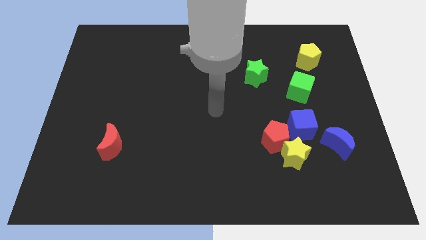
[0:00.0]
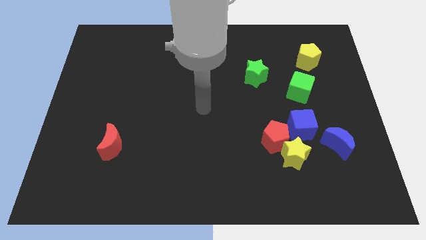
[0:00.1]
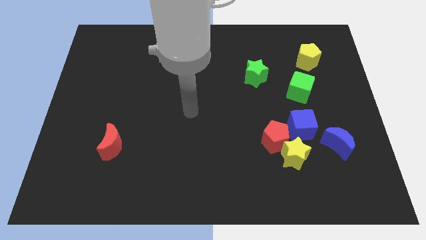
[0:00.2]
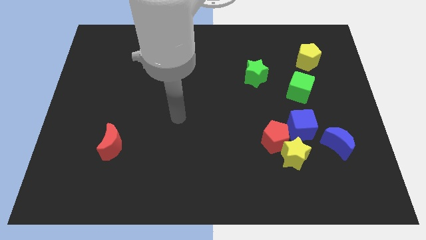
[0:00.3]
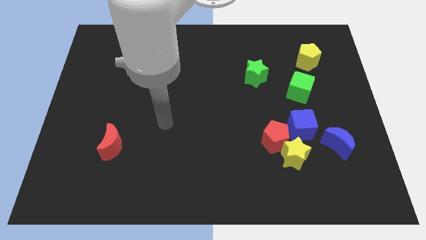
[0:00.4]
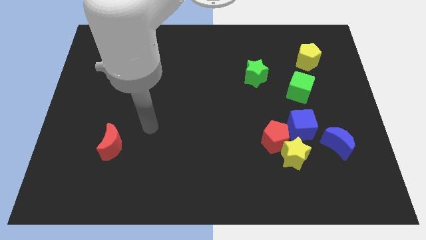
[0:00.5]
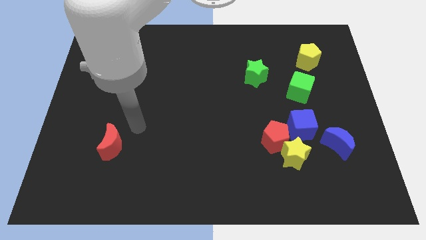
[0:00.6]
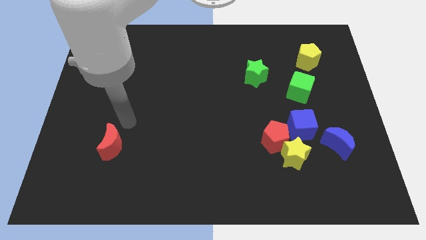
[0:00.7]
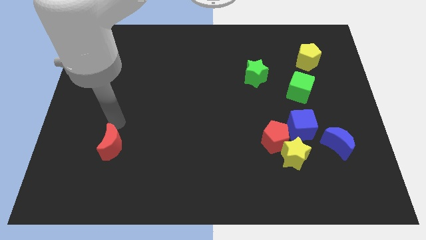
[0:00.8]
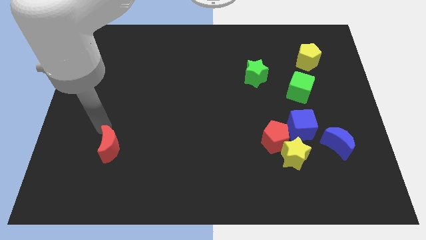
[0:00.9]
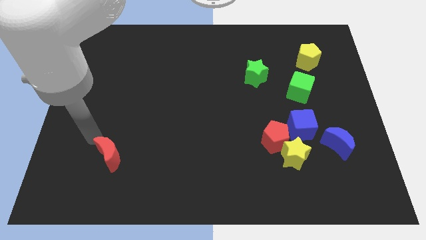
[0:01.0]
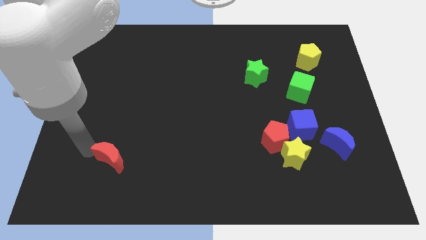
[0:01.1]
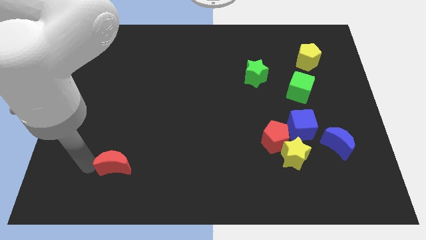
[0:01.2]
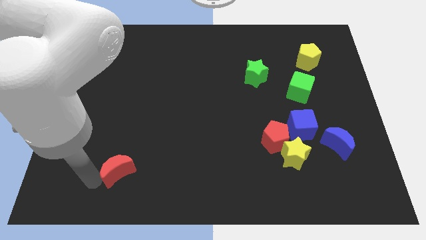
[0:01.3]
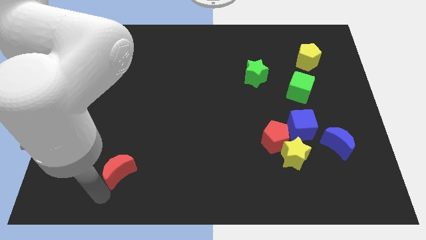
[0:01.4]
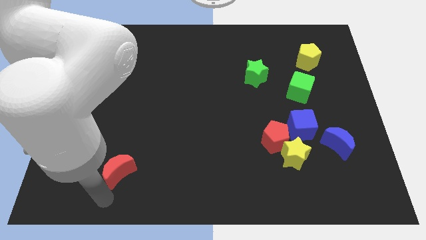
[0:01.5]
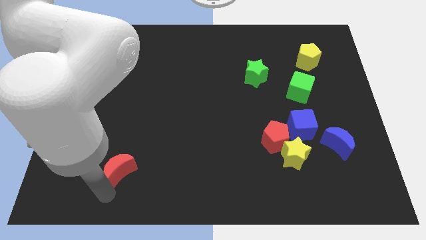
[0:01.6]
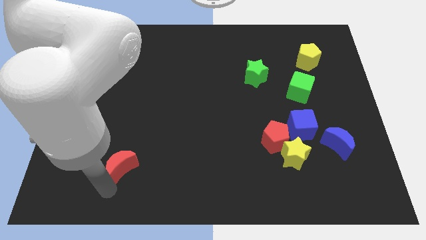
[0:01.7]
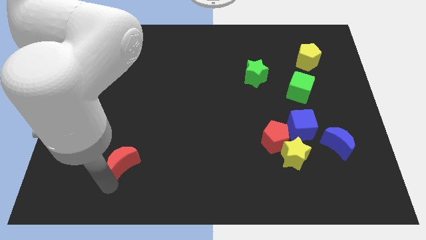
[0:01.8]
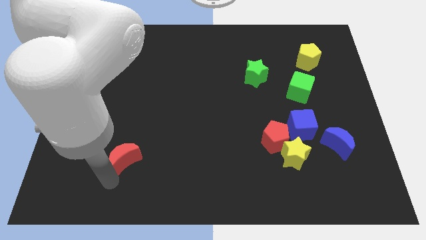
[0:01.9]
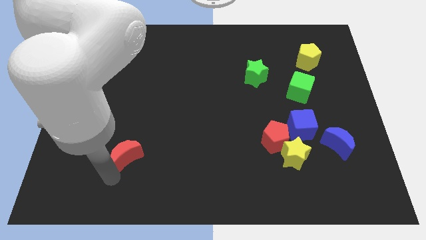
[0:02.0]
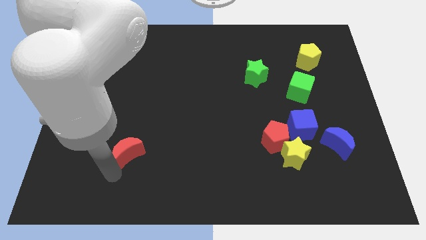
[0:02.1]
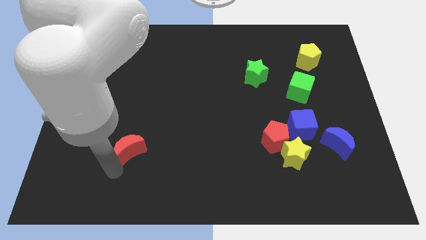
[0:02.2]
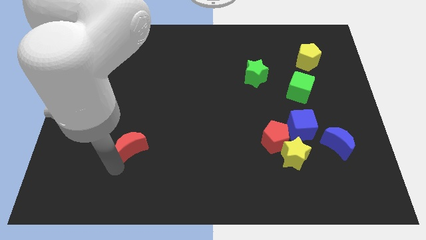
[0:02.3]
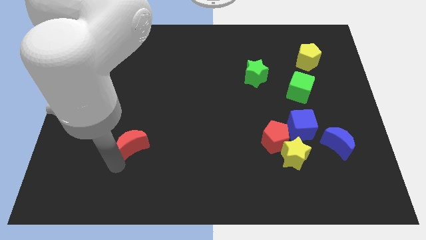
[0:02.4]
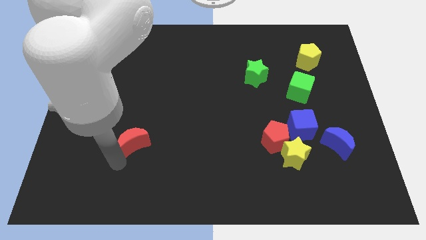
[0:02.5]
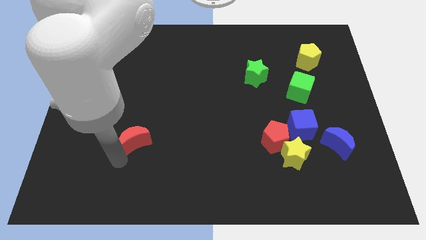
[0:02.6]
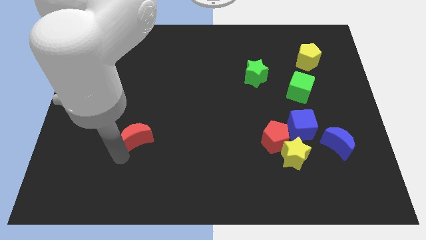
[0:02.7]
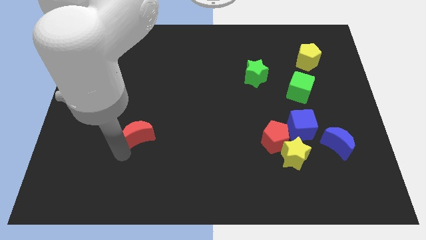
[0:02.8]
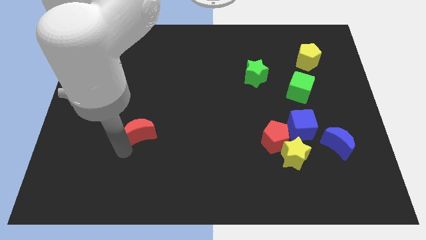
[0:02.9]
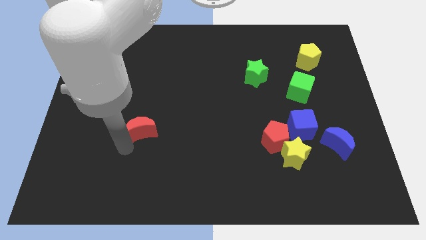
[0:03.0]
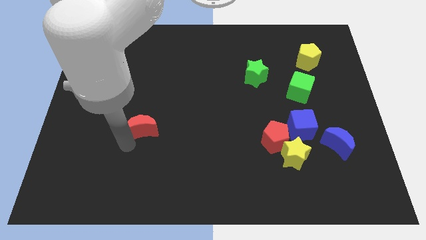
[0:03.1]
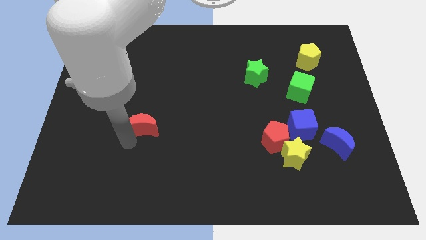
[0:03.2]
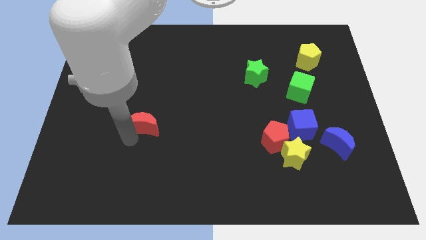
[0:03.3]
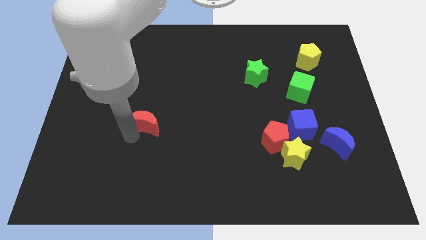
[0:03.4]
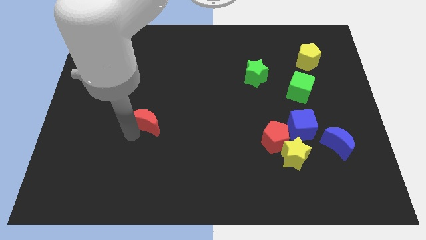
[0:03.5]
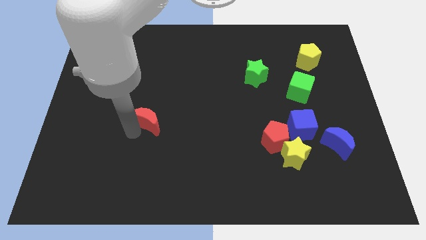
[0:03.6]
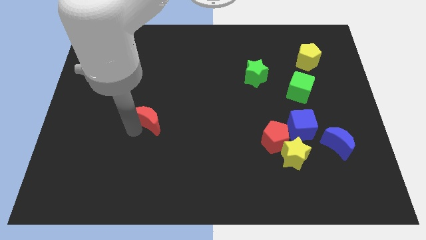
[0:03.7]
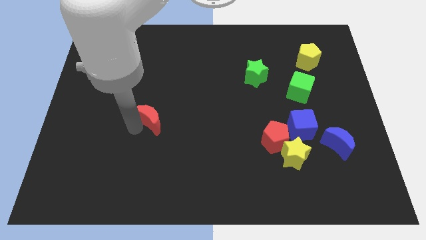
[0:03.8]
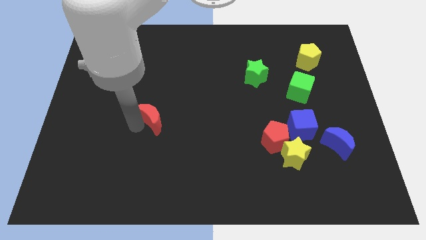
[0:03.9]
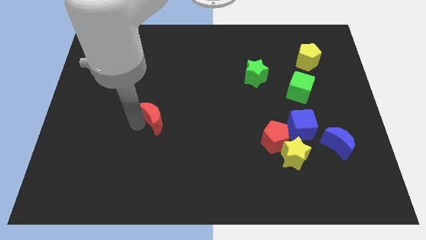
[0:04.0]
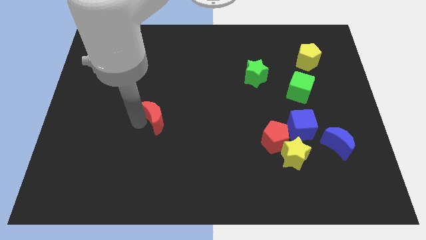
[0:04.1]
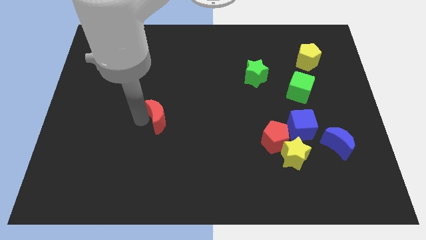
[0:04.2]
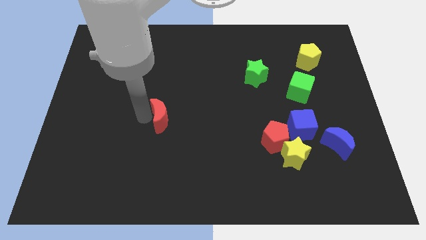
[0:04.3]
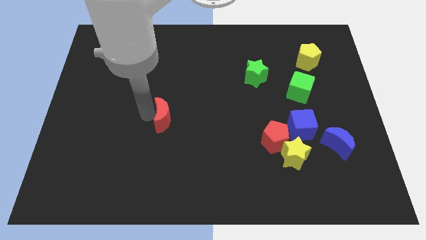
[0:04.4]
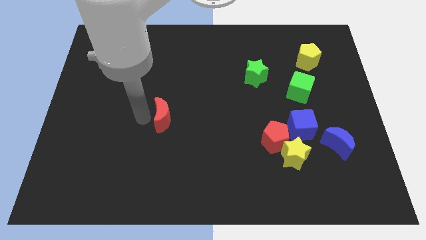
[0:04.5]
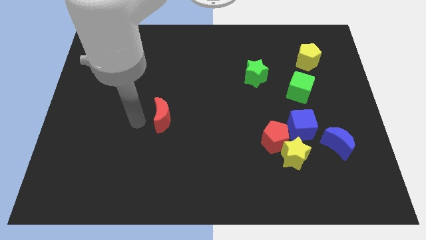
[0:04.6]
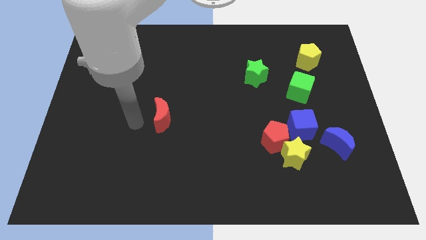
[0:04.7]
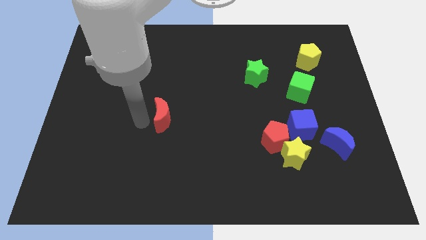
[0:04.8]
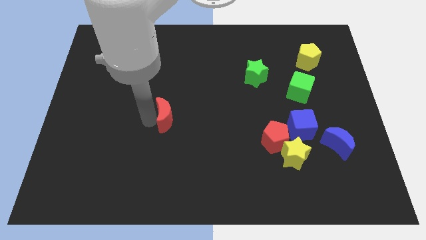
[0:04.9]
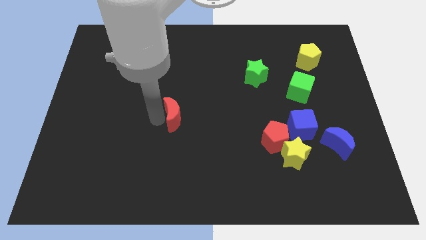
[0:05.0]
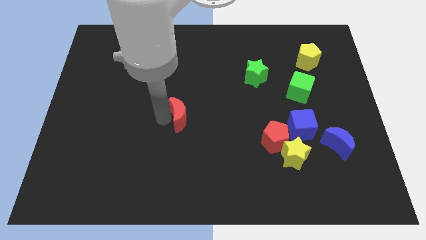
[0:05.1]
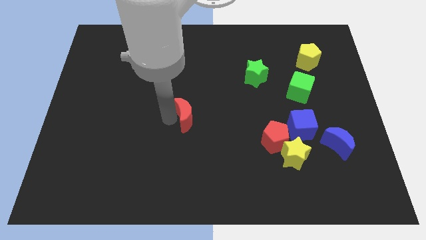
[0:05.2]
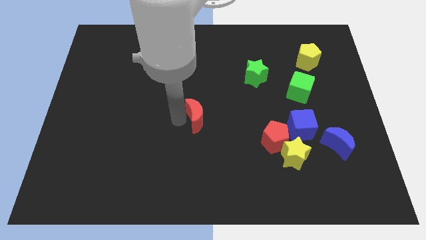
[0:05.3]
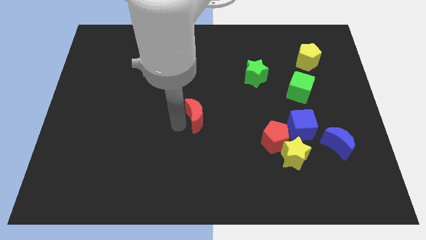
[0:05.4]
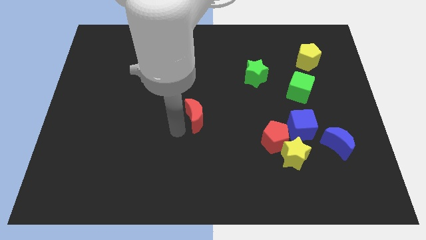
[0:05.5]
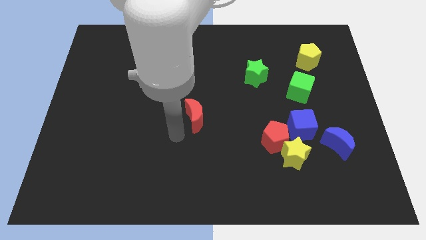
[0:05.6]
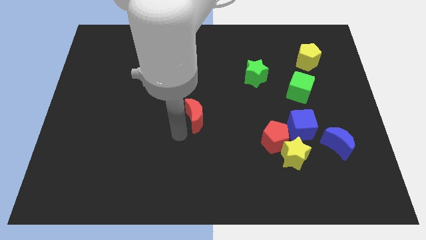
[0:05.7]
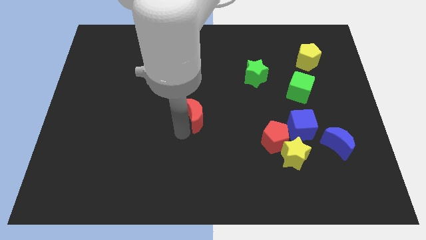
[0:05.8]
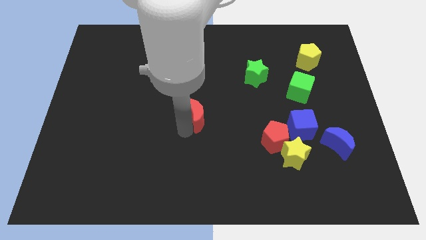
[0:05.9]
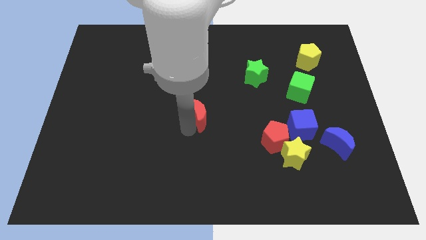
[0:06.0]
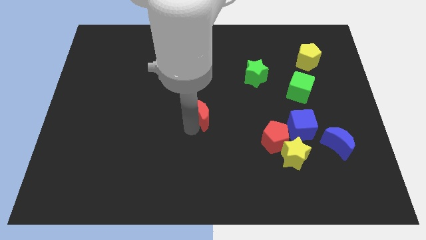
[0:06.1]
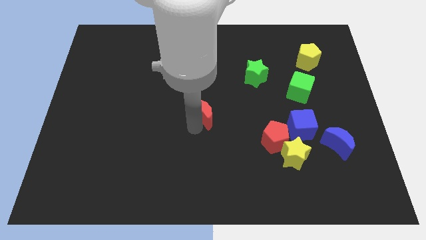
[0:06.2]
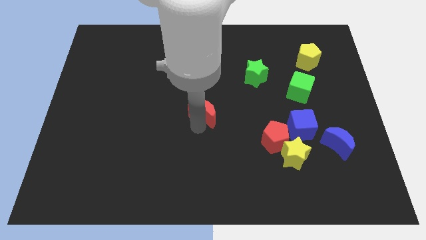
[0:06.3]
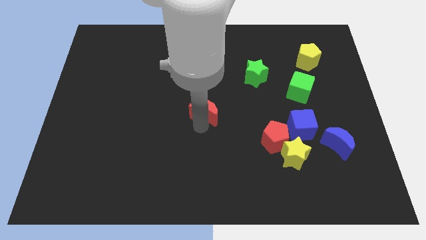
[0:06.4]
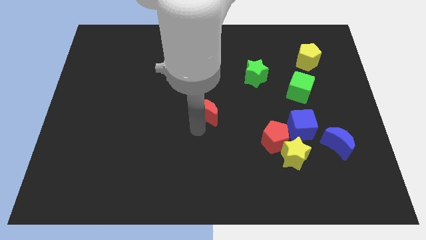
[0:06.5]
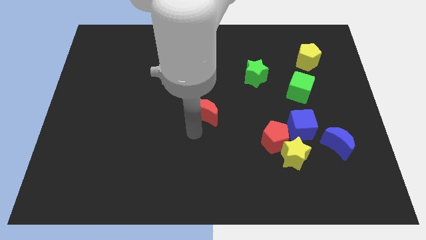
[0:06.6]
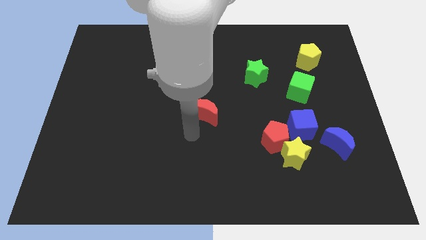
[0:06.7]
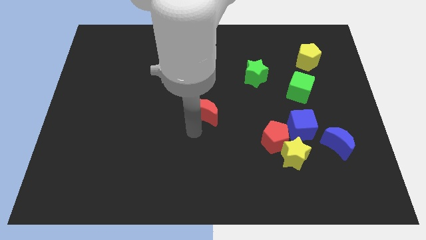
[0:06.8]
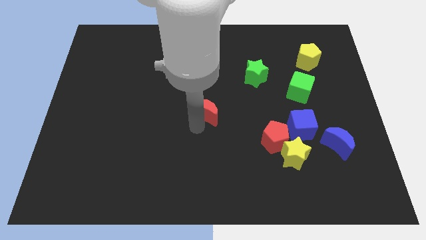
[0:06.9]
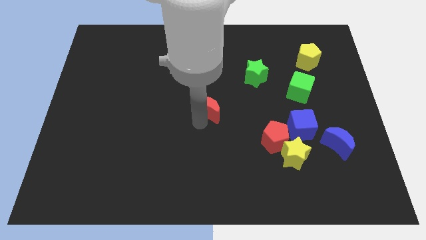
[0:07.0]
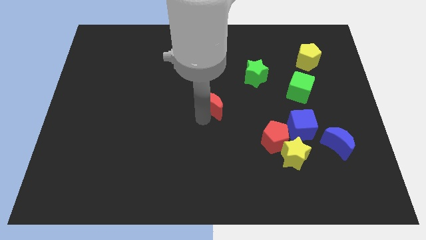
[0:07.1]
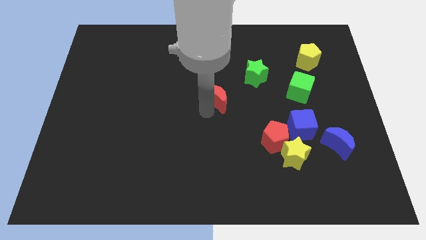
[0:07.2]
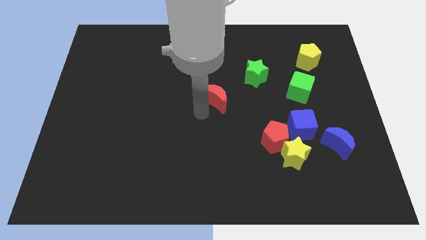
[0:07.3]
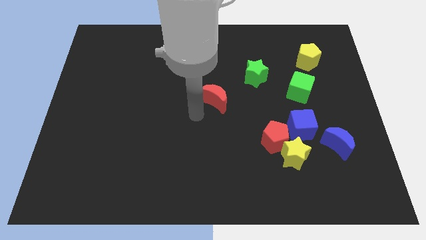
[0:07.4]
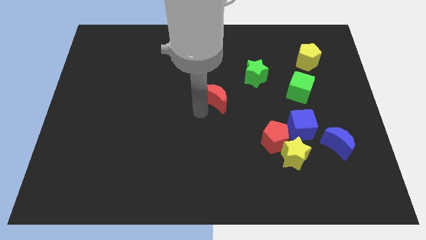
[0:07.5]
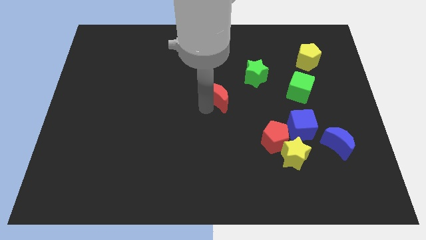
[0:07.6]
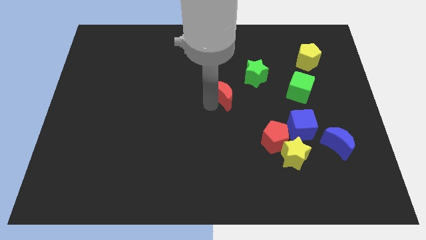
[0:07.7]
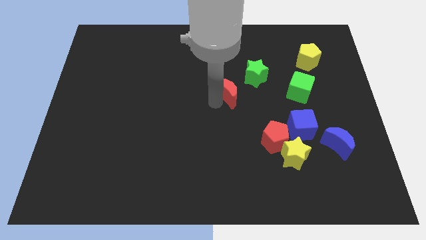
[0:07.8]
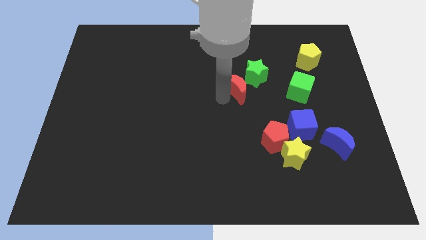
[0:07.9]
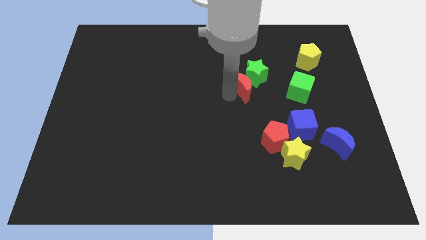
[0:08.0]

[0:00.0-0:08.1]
move the red moon to the green star
